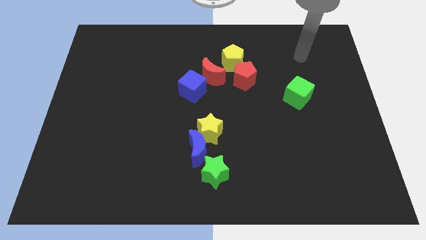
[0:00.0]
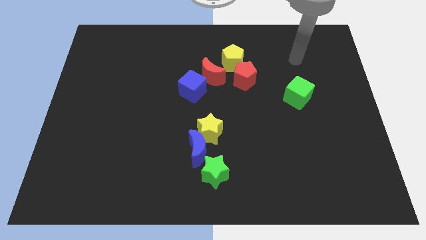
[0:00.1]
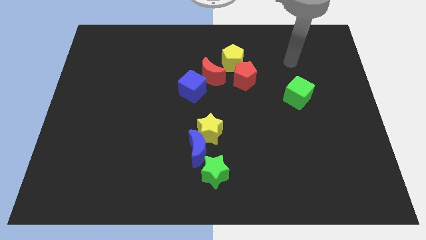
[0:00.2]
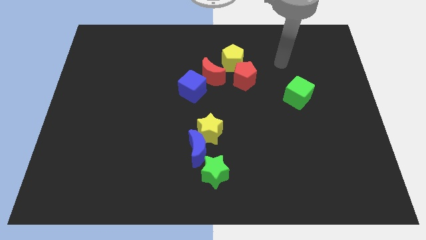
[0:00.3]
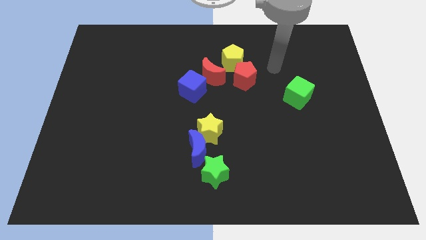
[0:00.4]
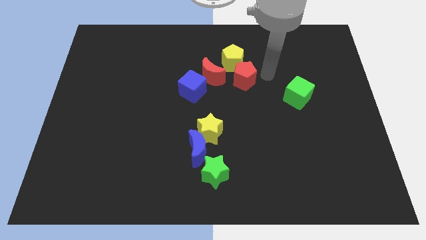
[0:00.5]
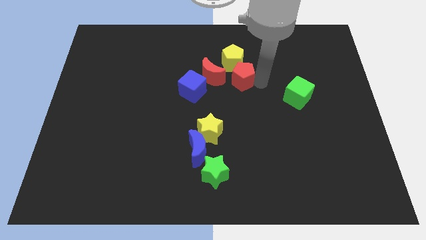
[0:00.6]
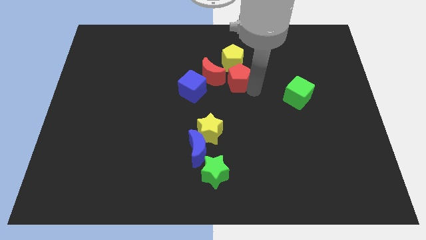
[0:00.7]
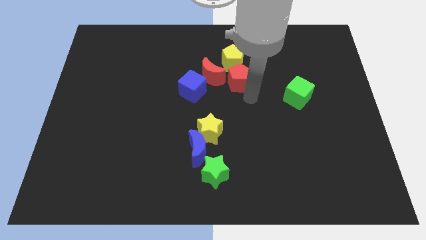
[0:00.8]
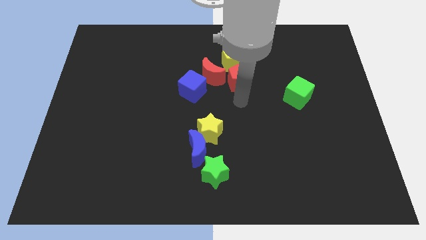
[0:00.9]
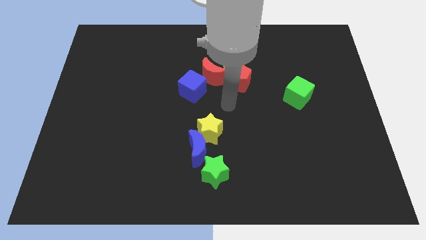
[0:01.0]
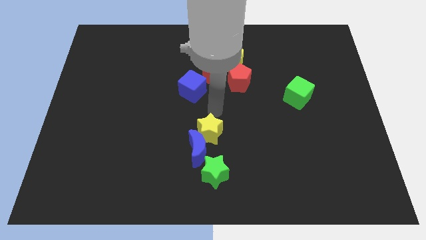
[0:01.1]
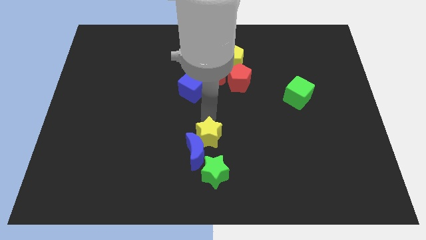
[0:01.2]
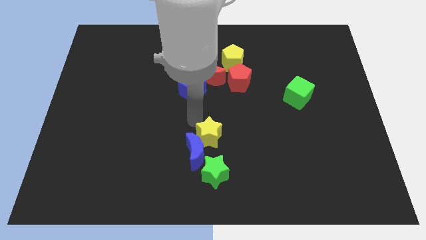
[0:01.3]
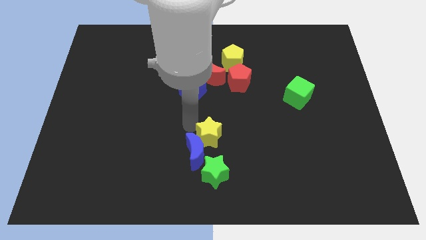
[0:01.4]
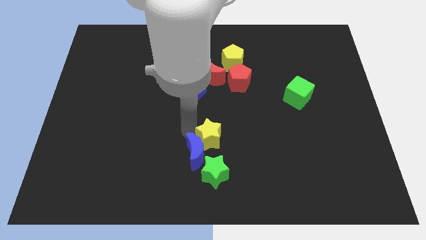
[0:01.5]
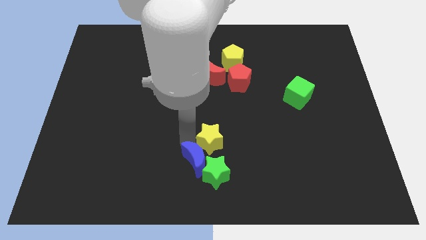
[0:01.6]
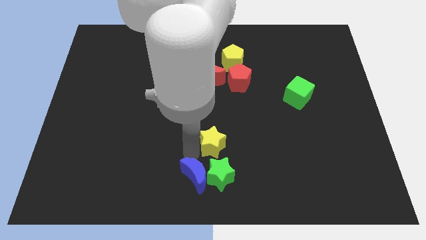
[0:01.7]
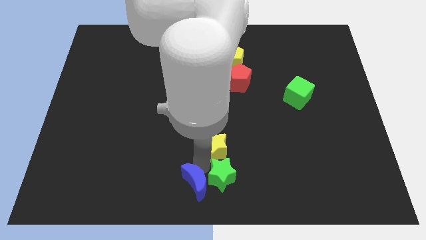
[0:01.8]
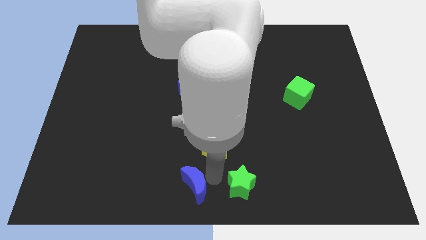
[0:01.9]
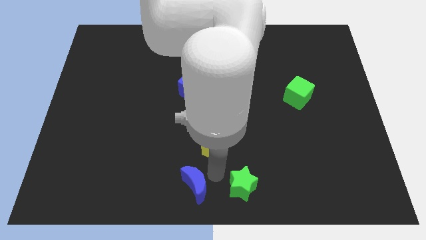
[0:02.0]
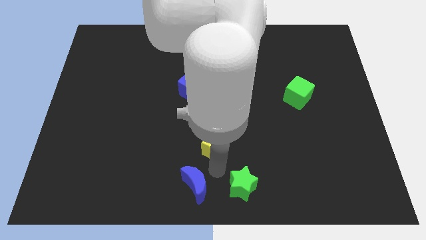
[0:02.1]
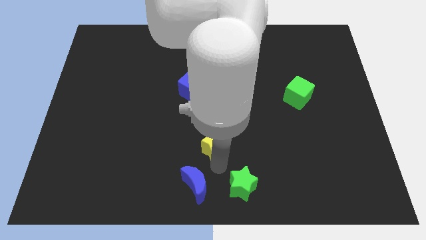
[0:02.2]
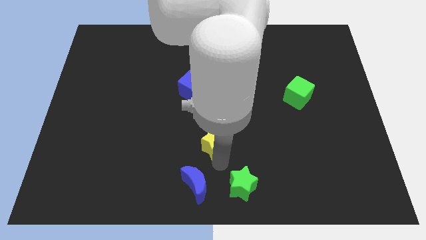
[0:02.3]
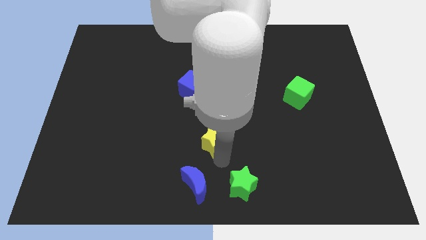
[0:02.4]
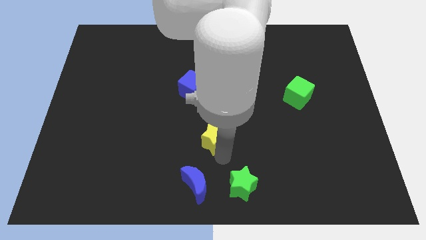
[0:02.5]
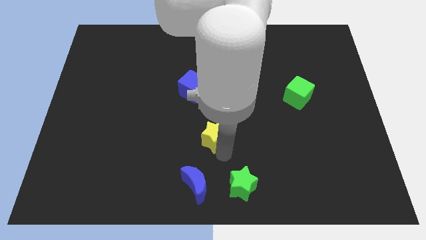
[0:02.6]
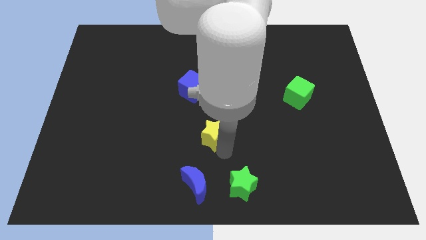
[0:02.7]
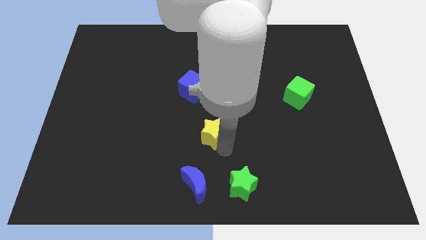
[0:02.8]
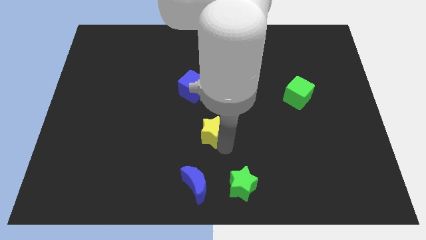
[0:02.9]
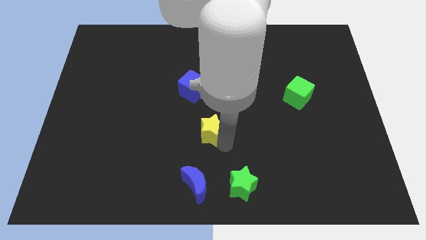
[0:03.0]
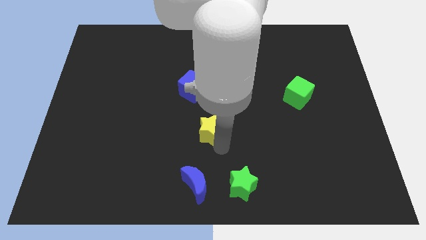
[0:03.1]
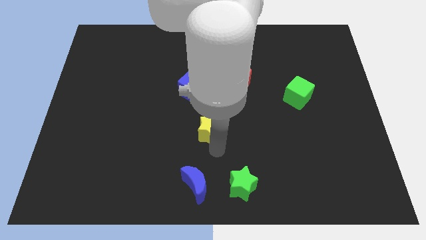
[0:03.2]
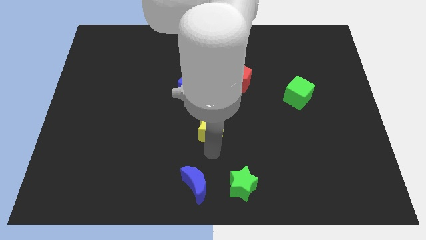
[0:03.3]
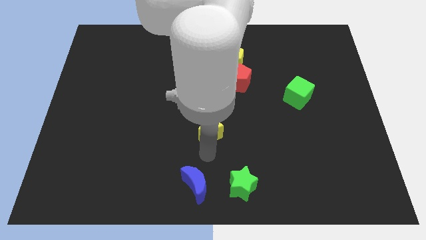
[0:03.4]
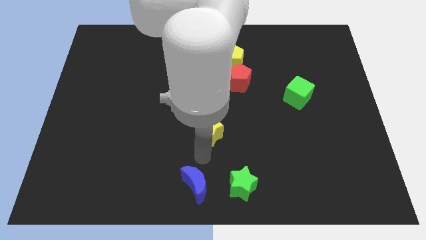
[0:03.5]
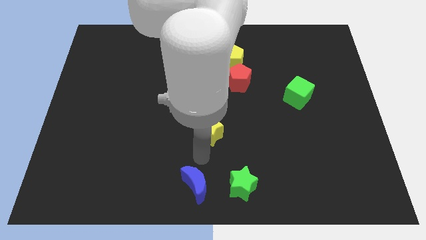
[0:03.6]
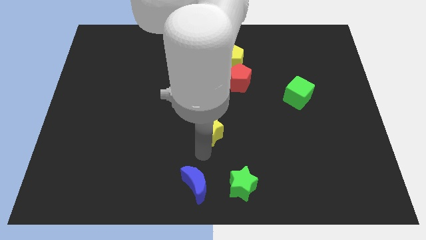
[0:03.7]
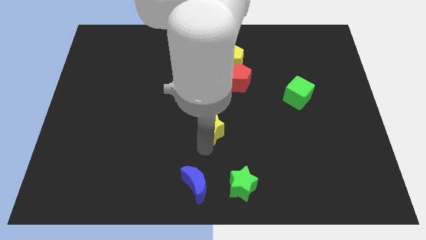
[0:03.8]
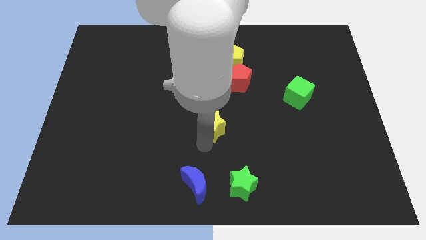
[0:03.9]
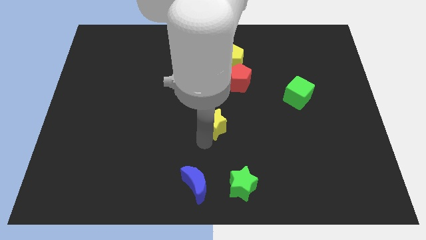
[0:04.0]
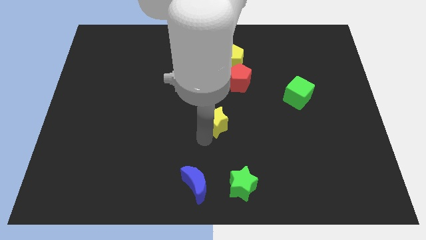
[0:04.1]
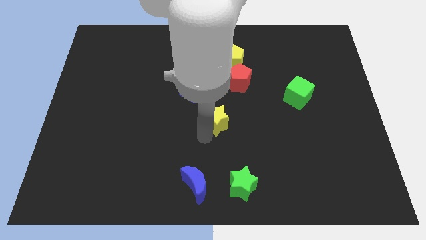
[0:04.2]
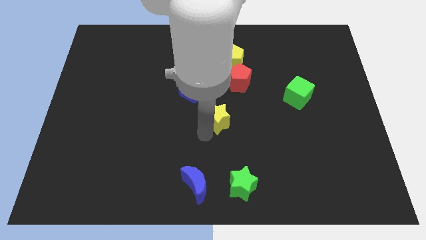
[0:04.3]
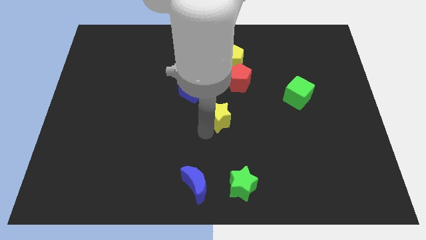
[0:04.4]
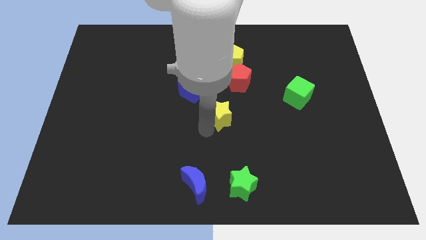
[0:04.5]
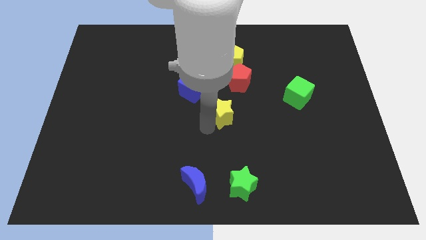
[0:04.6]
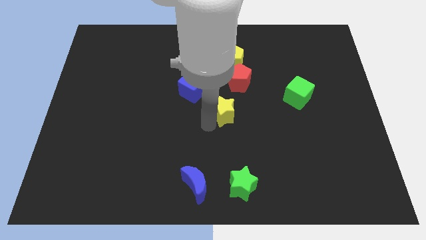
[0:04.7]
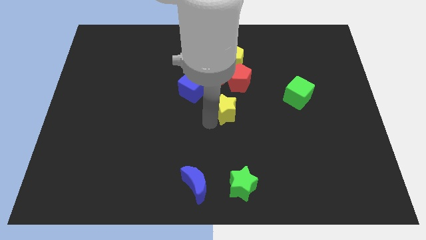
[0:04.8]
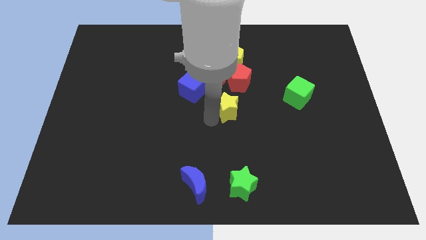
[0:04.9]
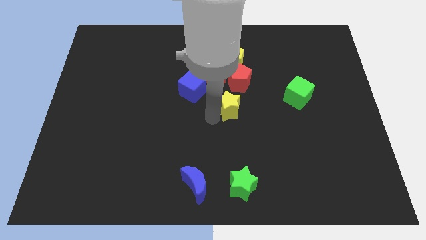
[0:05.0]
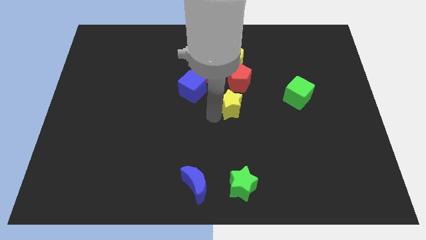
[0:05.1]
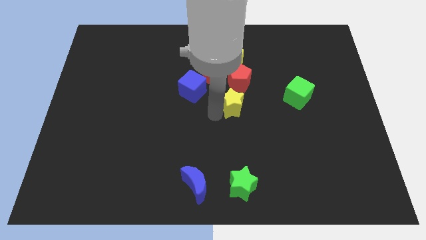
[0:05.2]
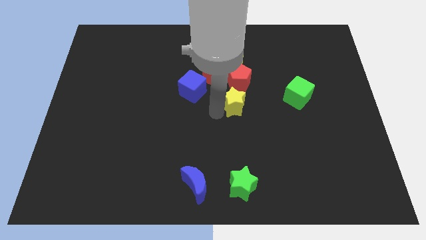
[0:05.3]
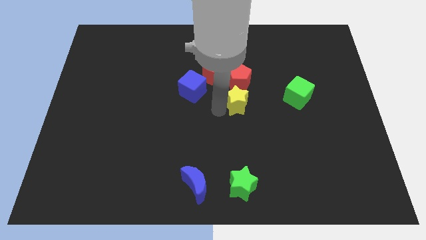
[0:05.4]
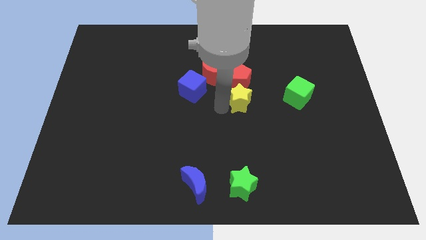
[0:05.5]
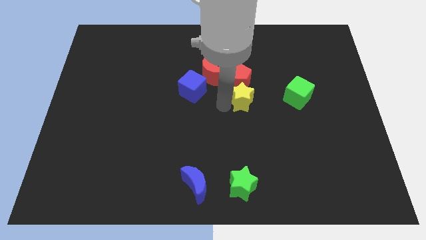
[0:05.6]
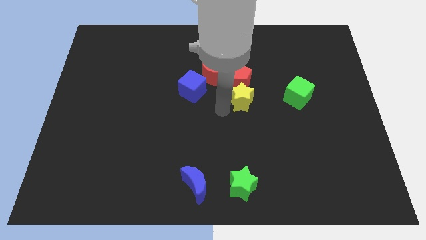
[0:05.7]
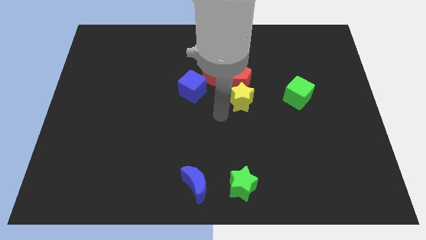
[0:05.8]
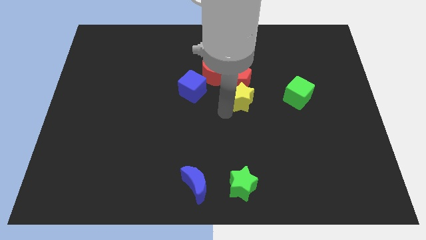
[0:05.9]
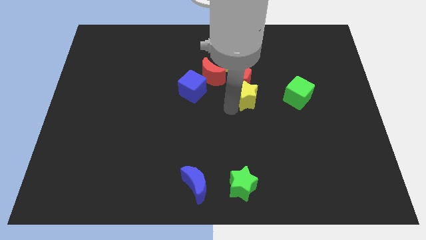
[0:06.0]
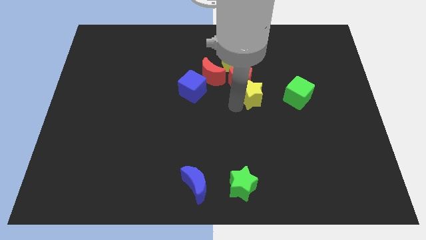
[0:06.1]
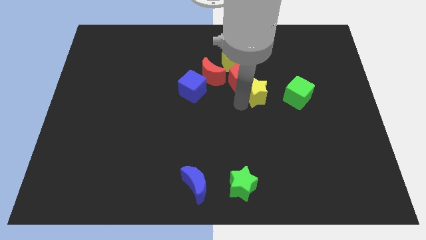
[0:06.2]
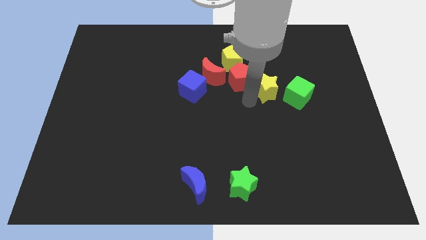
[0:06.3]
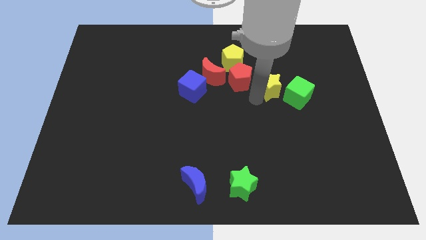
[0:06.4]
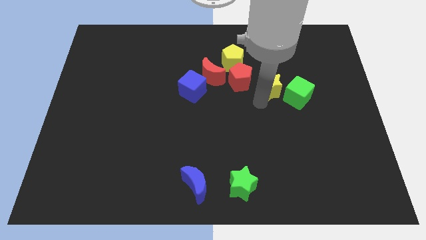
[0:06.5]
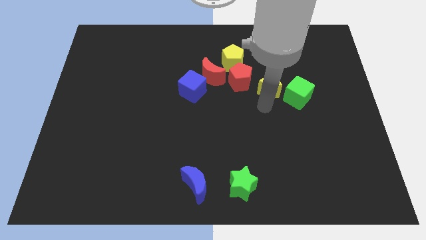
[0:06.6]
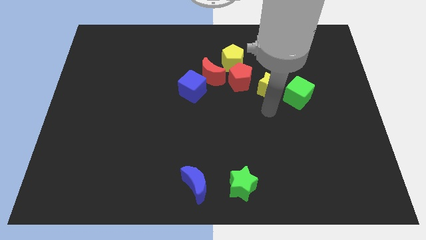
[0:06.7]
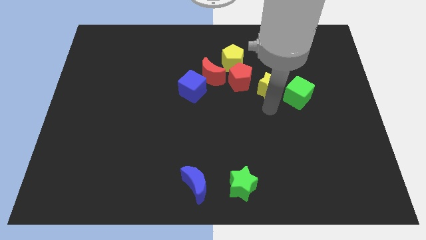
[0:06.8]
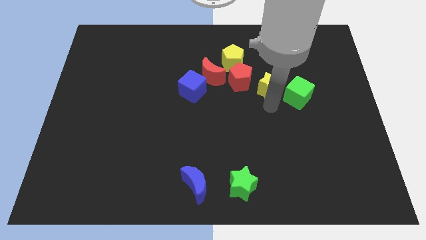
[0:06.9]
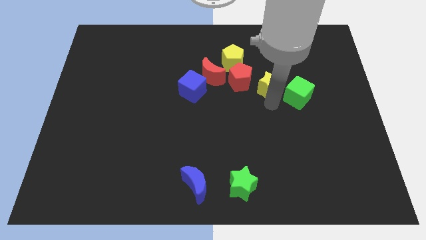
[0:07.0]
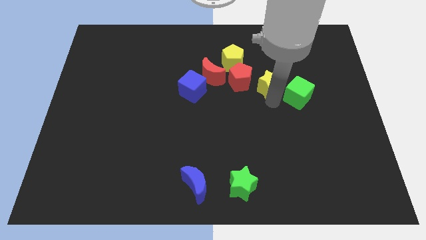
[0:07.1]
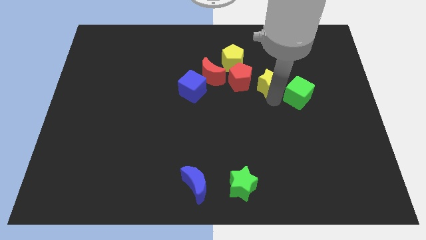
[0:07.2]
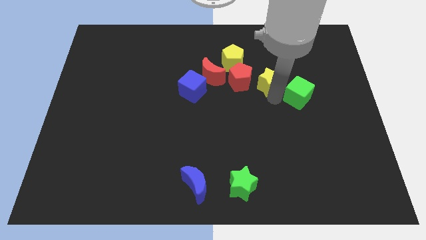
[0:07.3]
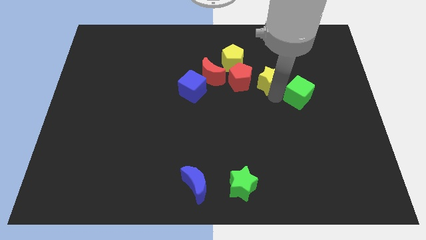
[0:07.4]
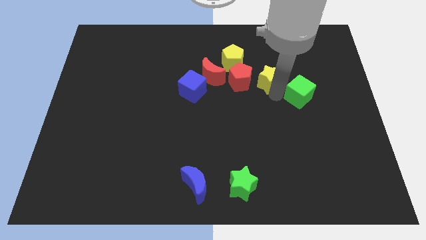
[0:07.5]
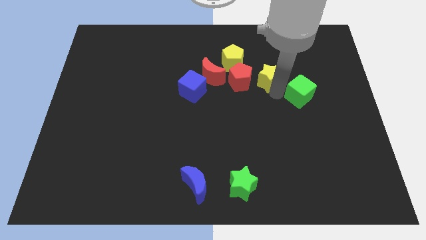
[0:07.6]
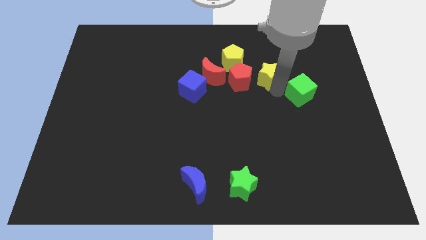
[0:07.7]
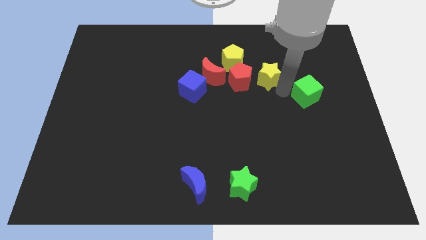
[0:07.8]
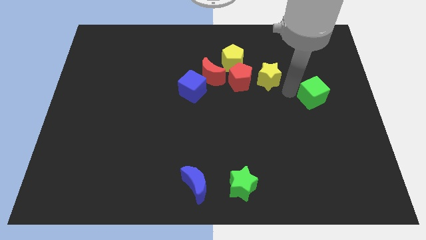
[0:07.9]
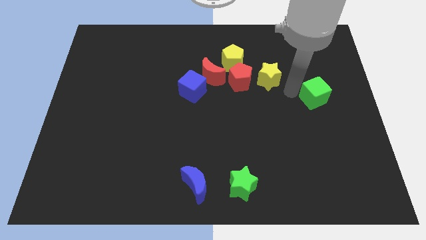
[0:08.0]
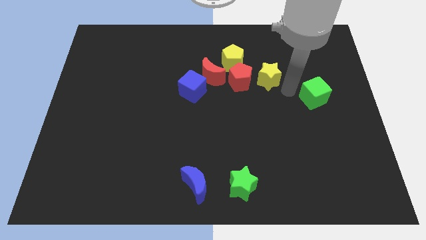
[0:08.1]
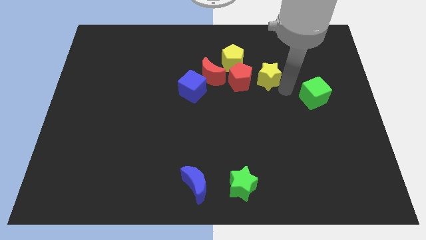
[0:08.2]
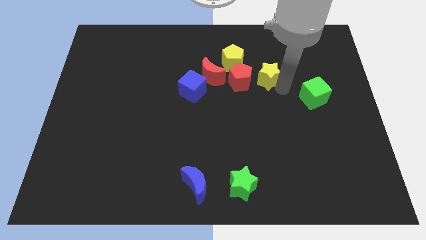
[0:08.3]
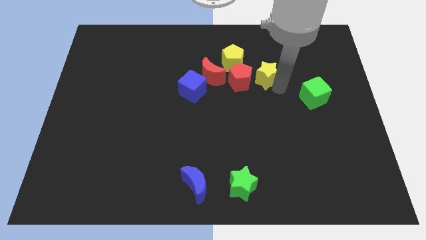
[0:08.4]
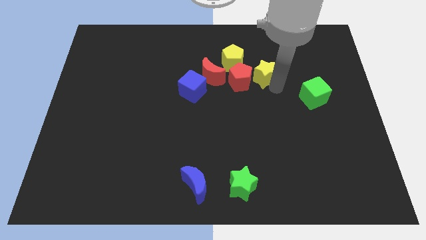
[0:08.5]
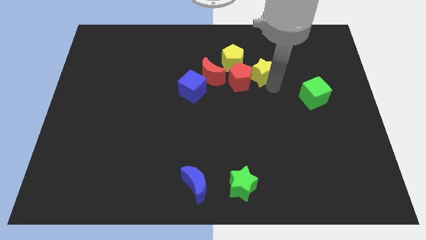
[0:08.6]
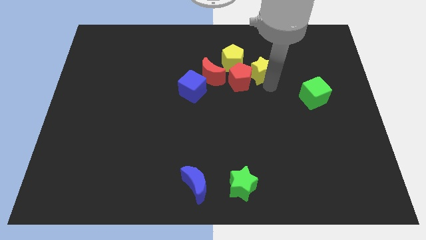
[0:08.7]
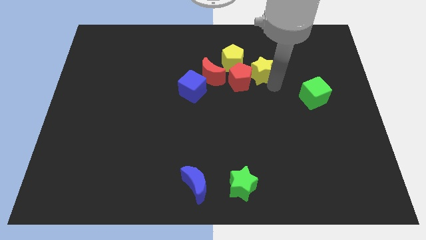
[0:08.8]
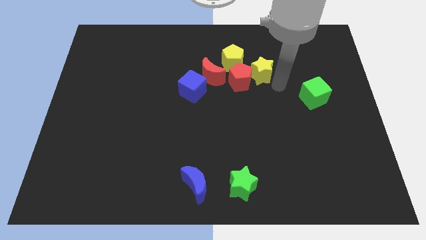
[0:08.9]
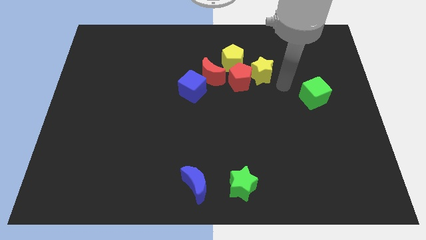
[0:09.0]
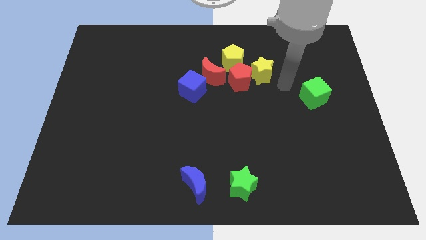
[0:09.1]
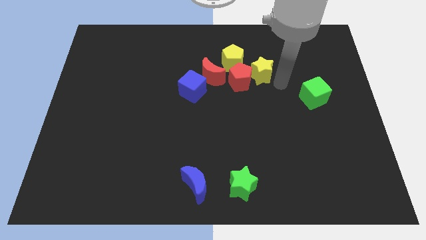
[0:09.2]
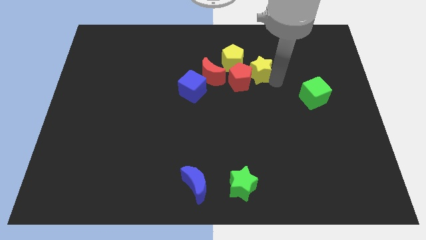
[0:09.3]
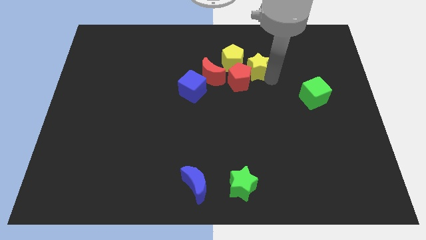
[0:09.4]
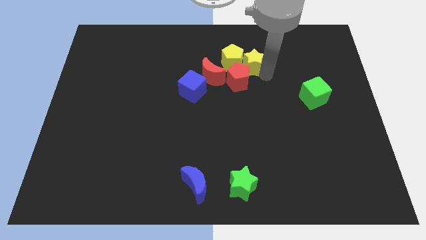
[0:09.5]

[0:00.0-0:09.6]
put the yellow star close to the yellow pentagon
